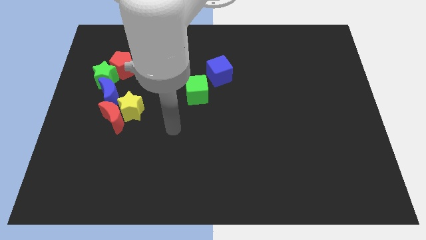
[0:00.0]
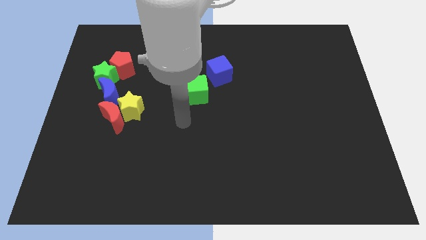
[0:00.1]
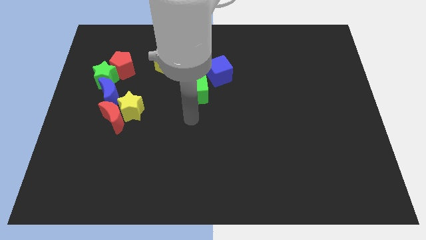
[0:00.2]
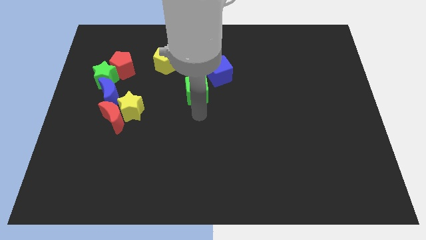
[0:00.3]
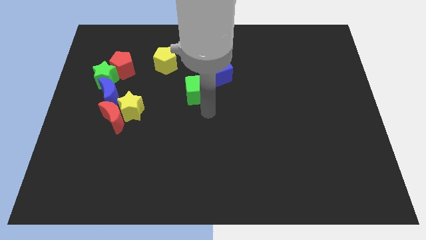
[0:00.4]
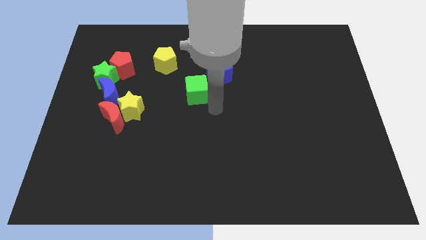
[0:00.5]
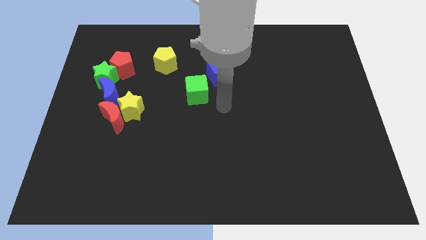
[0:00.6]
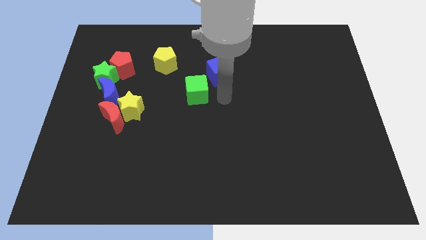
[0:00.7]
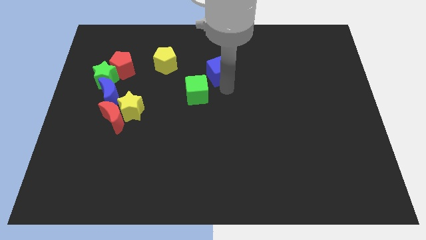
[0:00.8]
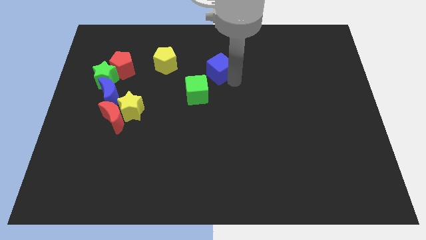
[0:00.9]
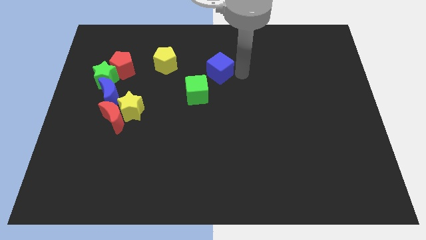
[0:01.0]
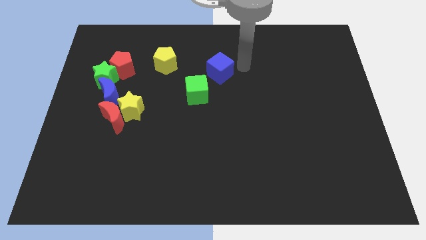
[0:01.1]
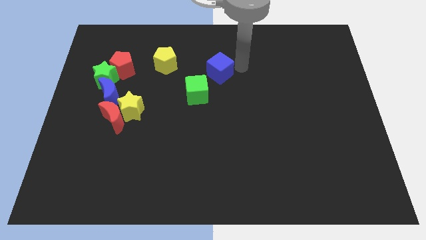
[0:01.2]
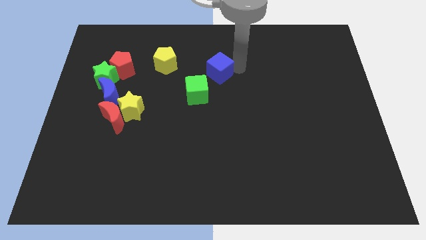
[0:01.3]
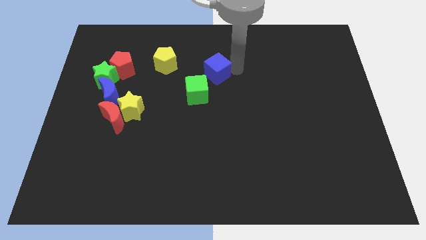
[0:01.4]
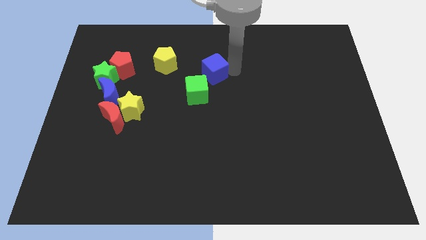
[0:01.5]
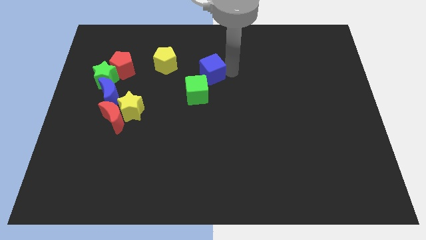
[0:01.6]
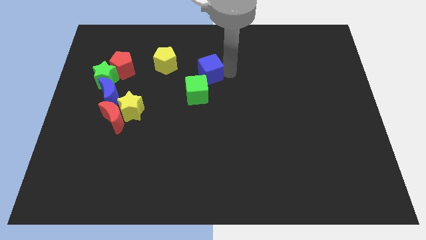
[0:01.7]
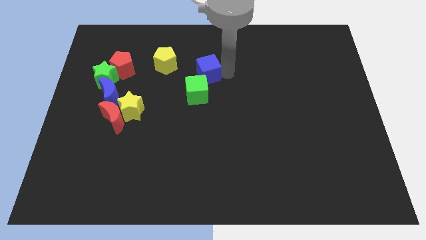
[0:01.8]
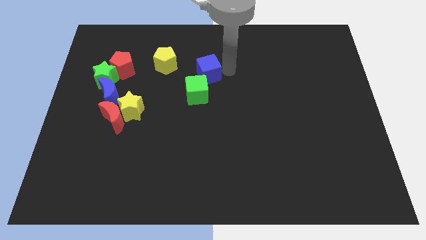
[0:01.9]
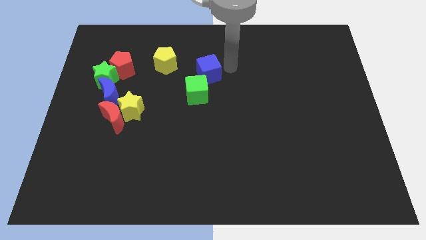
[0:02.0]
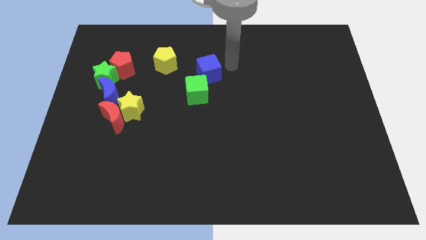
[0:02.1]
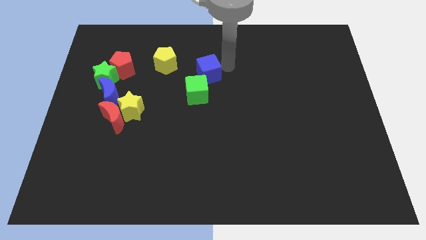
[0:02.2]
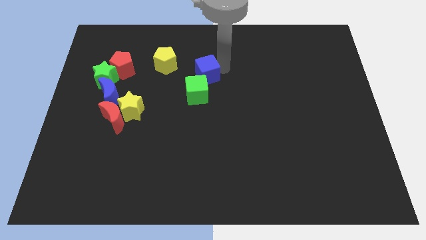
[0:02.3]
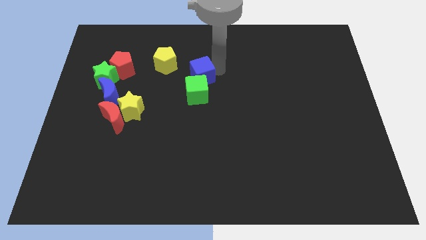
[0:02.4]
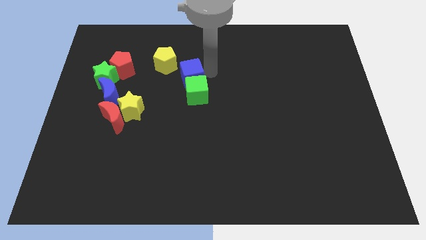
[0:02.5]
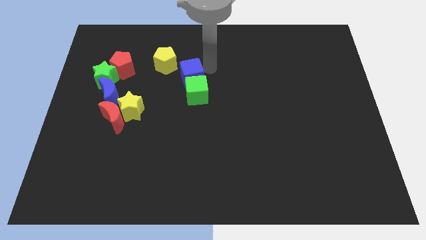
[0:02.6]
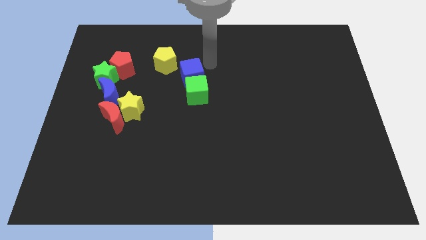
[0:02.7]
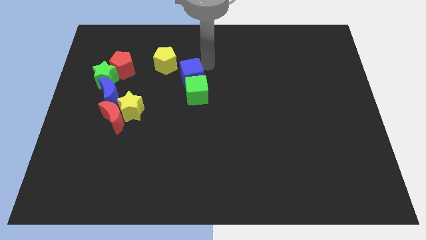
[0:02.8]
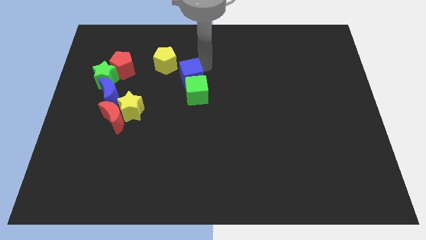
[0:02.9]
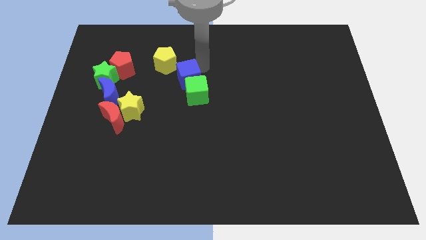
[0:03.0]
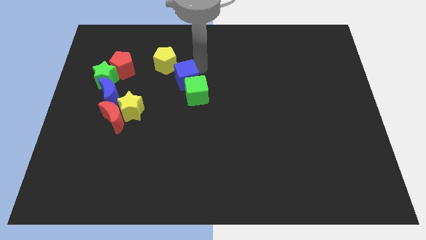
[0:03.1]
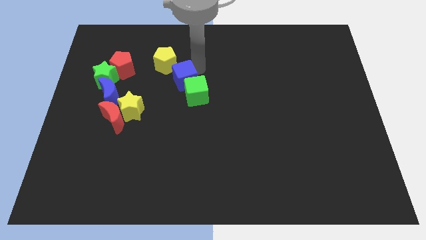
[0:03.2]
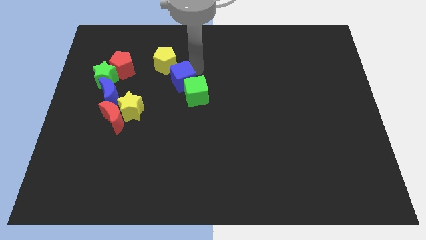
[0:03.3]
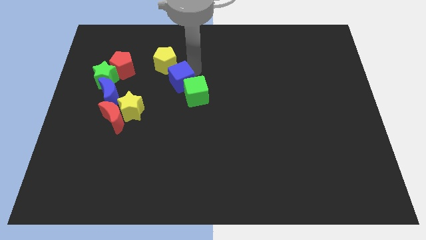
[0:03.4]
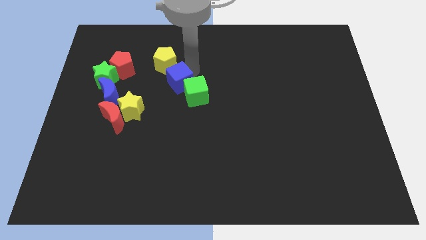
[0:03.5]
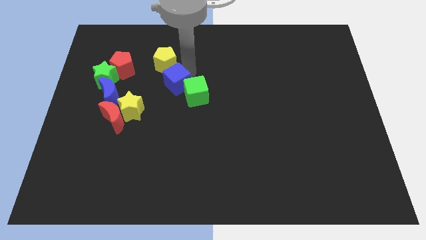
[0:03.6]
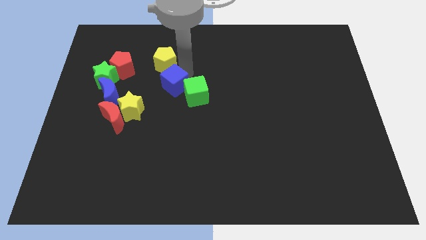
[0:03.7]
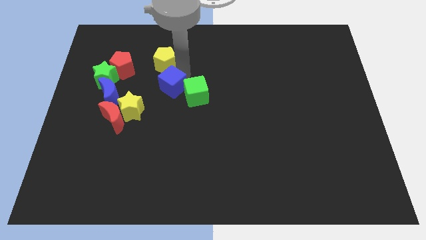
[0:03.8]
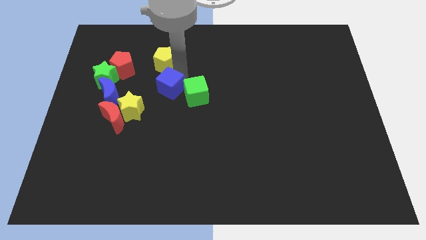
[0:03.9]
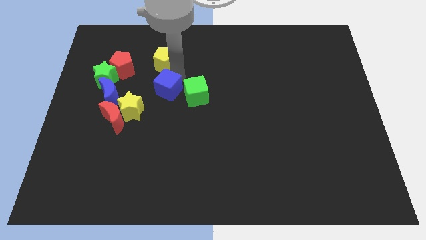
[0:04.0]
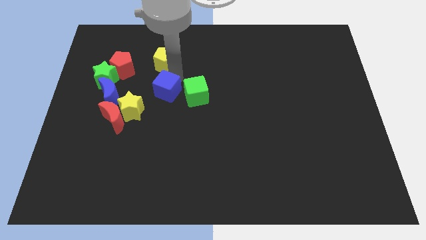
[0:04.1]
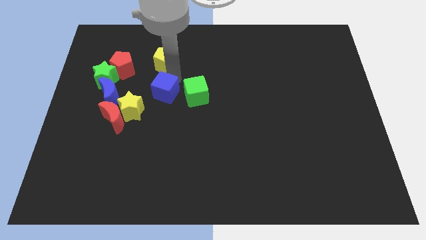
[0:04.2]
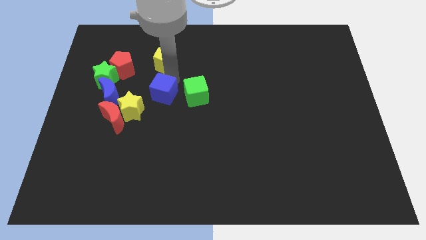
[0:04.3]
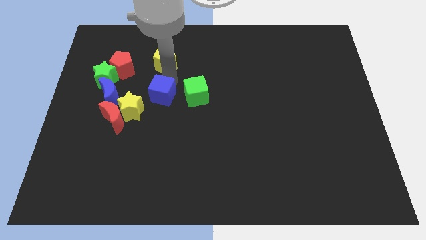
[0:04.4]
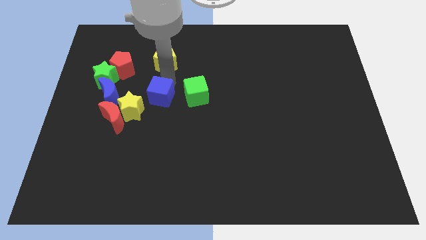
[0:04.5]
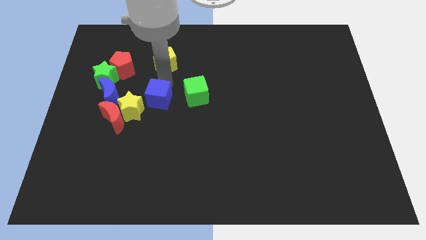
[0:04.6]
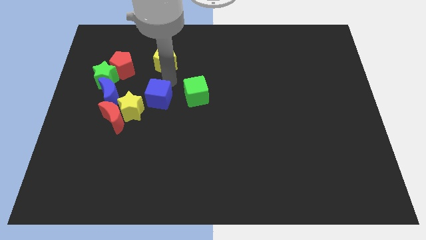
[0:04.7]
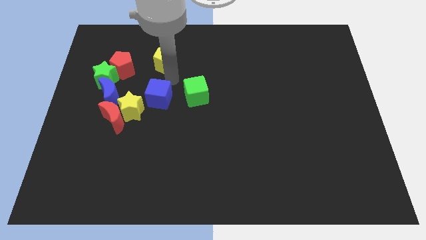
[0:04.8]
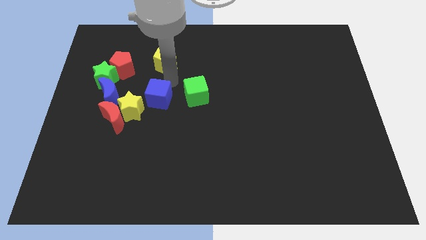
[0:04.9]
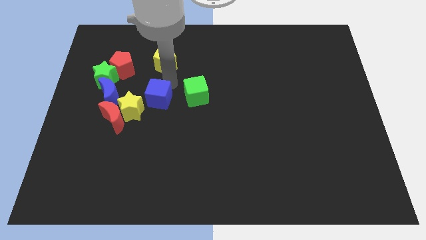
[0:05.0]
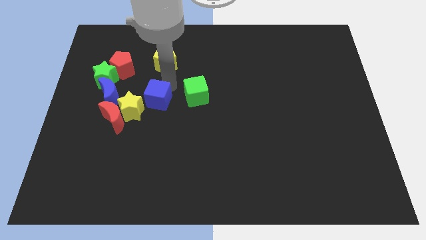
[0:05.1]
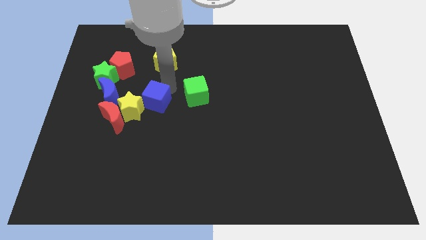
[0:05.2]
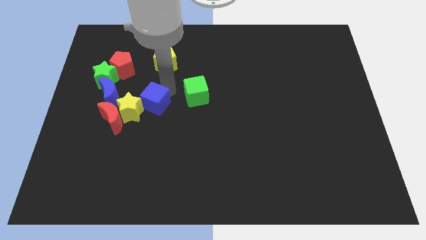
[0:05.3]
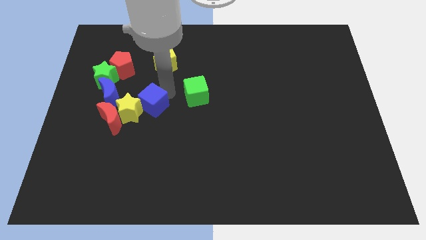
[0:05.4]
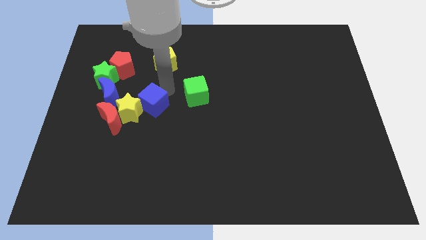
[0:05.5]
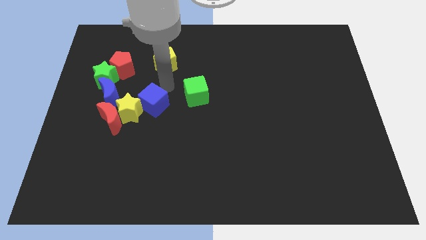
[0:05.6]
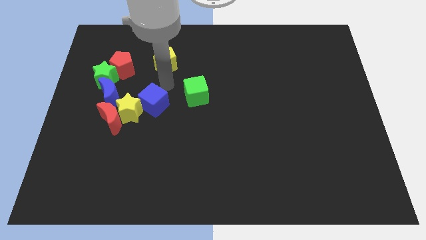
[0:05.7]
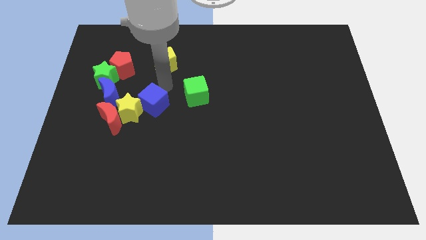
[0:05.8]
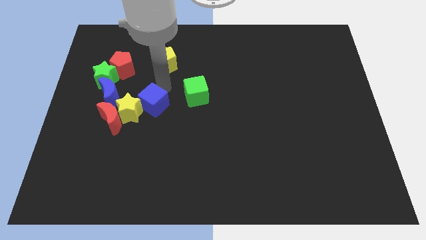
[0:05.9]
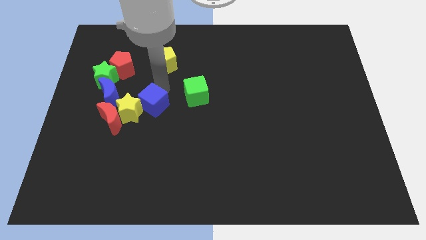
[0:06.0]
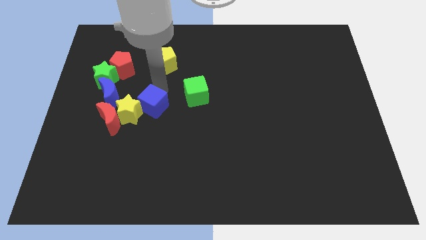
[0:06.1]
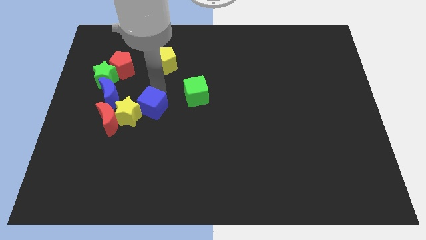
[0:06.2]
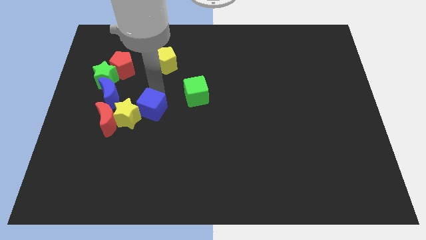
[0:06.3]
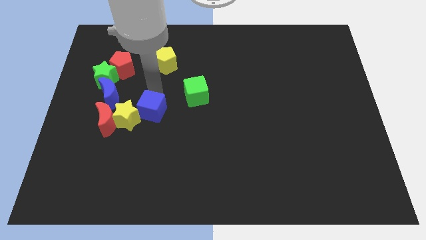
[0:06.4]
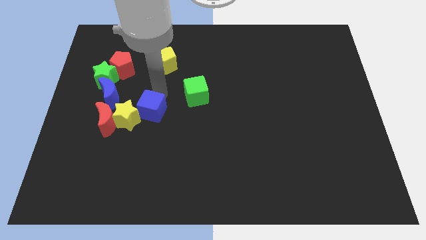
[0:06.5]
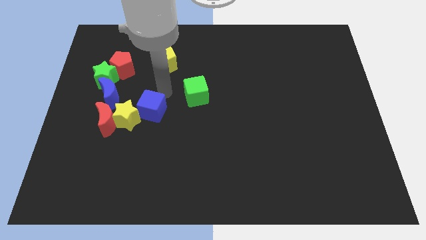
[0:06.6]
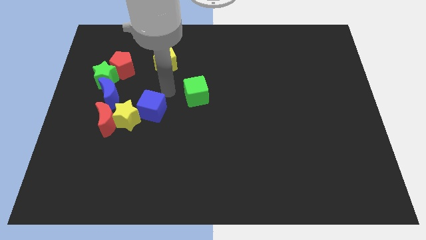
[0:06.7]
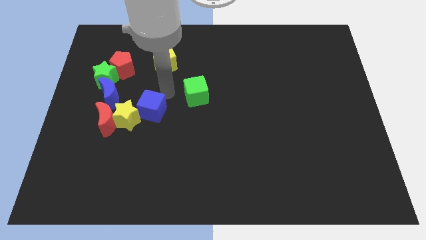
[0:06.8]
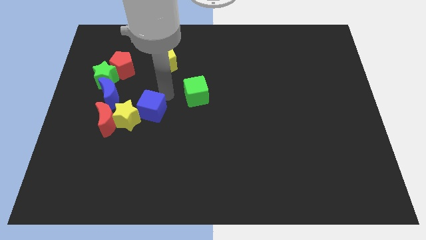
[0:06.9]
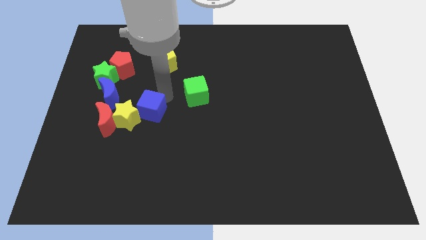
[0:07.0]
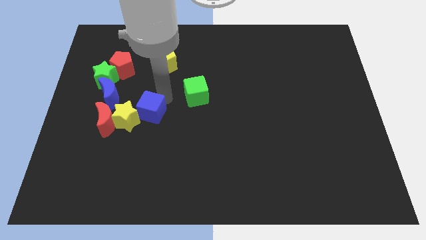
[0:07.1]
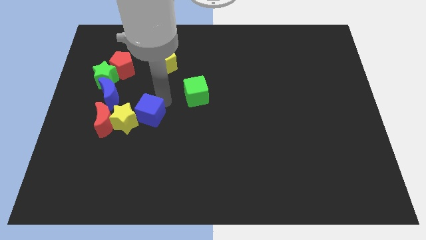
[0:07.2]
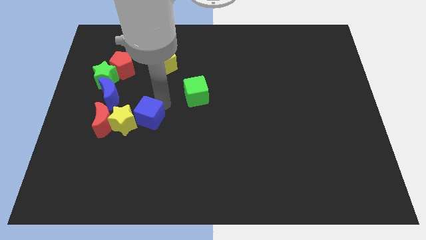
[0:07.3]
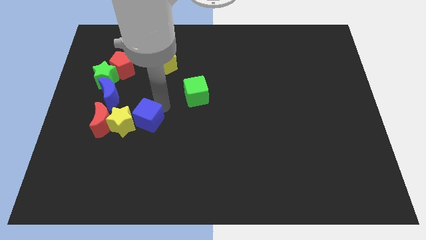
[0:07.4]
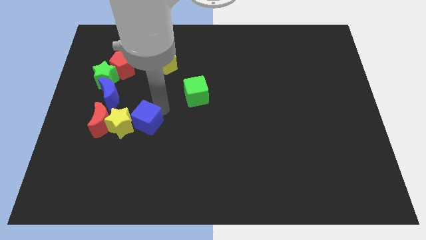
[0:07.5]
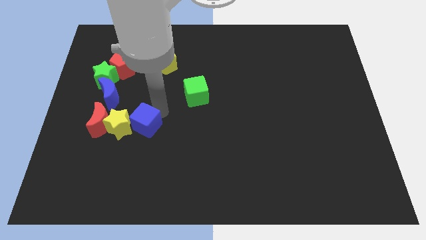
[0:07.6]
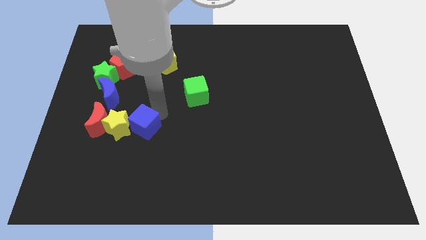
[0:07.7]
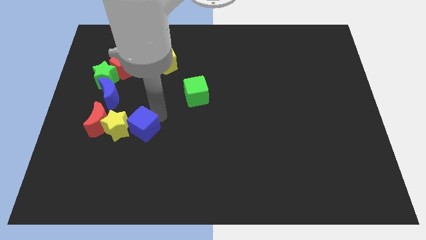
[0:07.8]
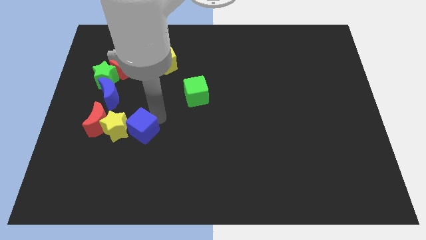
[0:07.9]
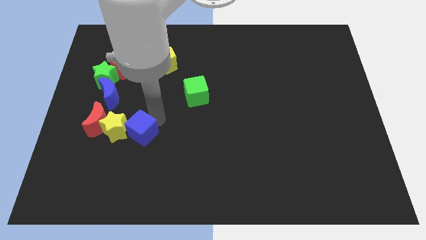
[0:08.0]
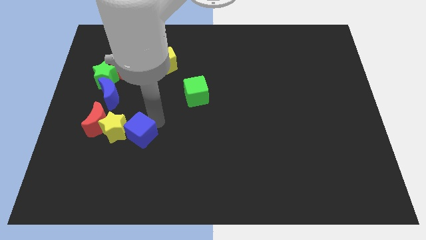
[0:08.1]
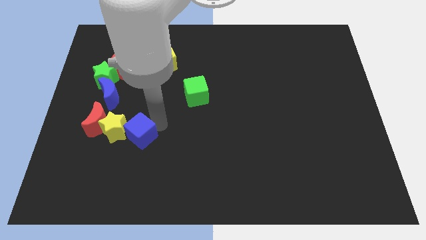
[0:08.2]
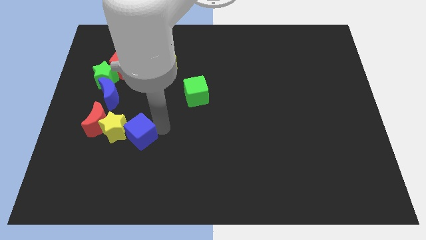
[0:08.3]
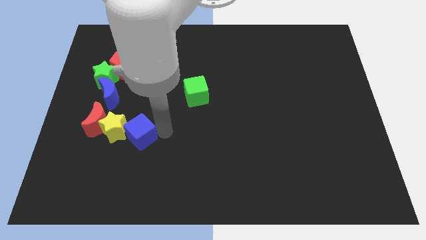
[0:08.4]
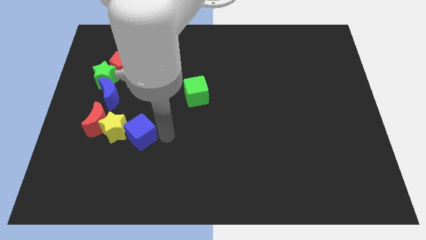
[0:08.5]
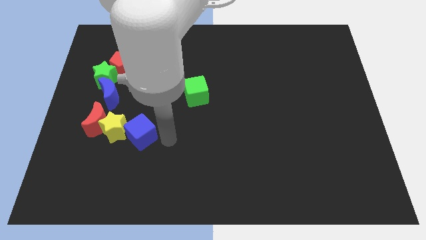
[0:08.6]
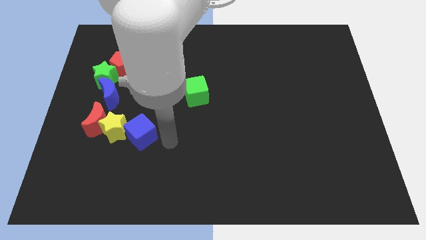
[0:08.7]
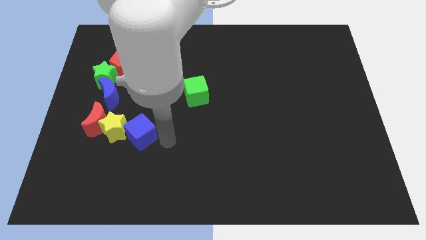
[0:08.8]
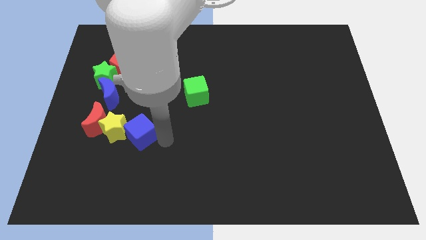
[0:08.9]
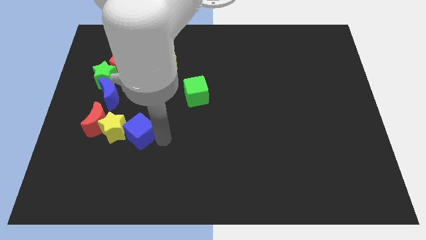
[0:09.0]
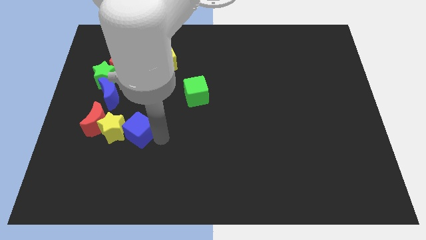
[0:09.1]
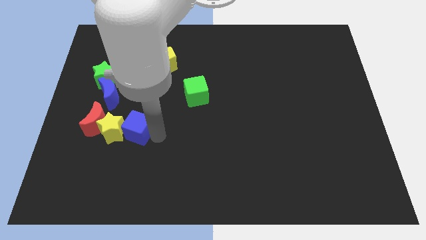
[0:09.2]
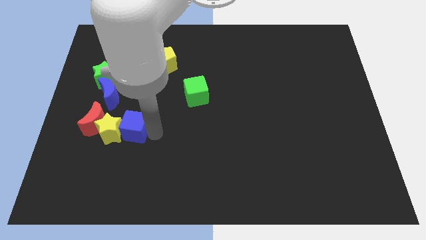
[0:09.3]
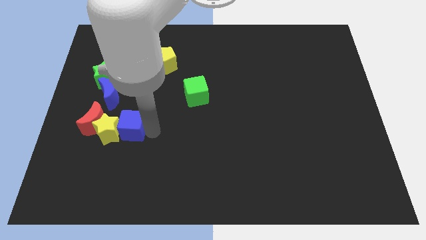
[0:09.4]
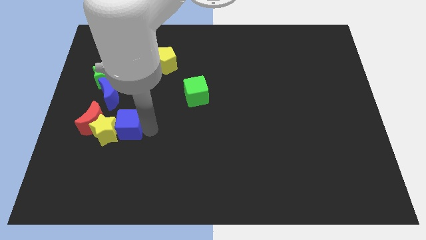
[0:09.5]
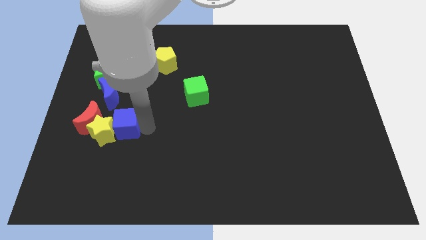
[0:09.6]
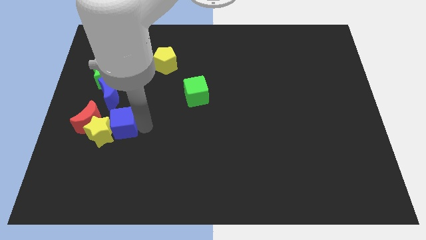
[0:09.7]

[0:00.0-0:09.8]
put the blue cube below the blue moon
